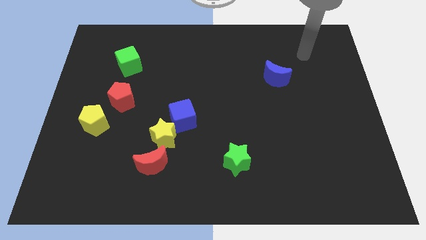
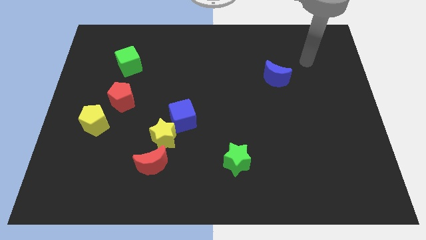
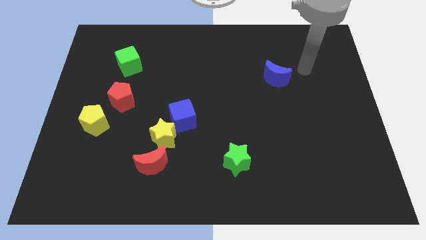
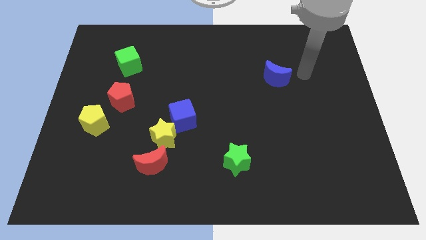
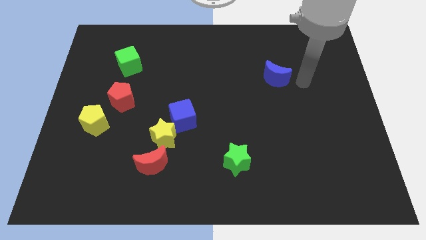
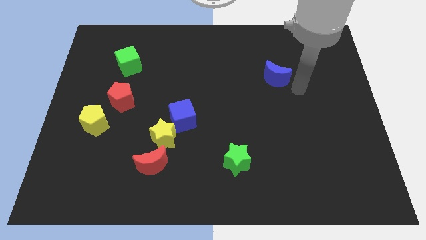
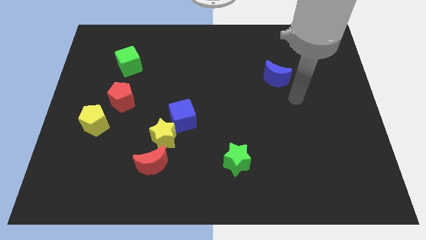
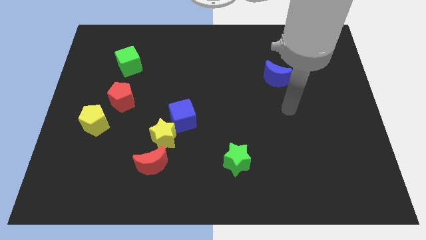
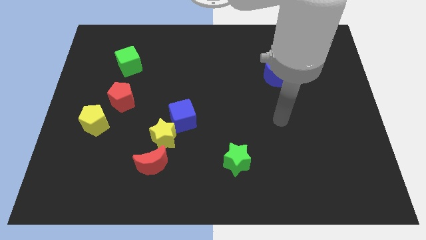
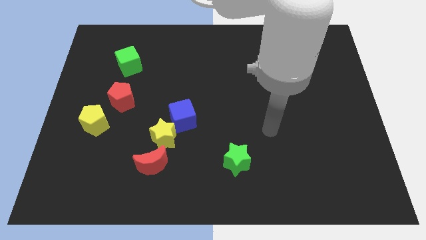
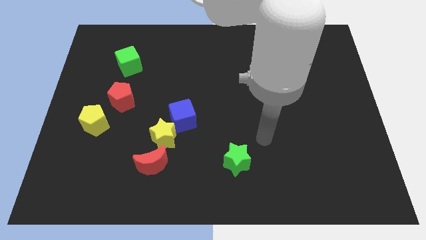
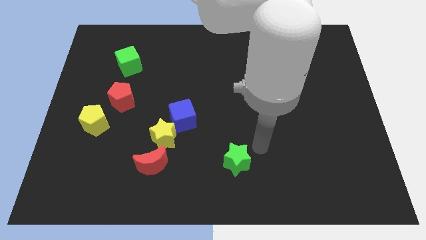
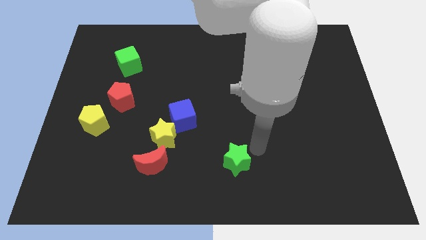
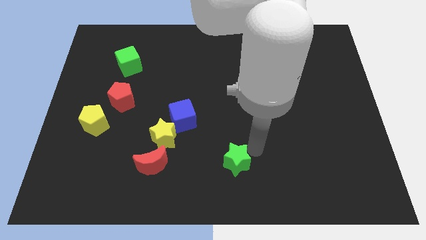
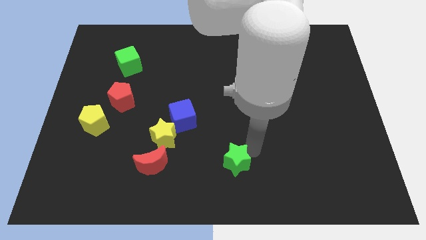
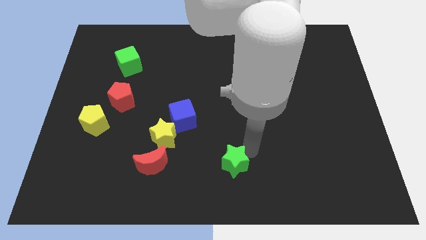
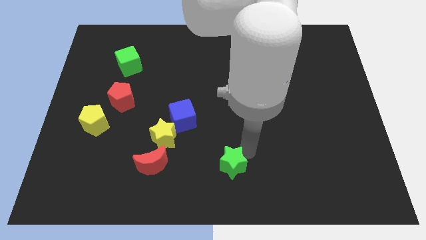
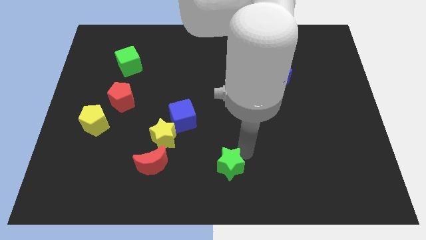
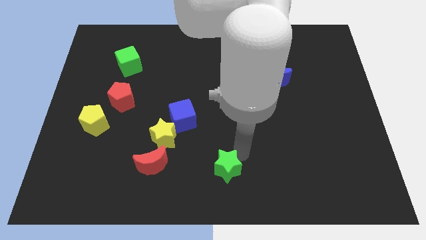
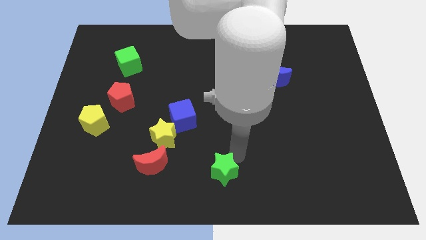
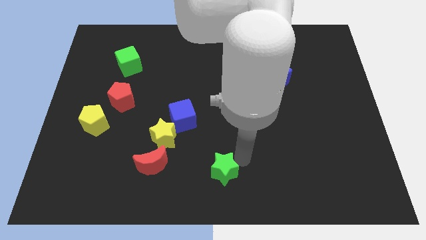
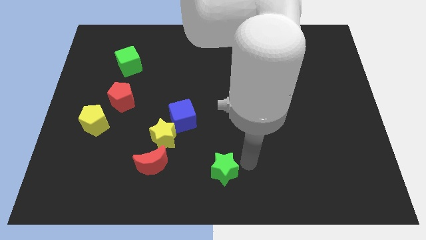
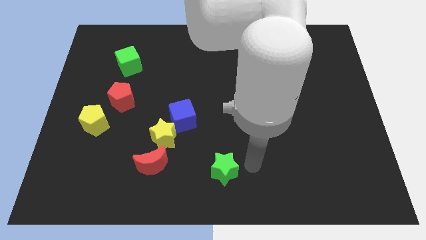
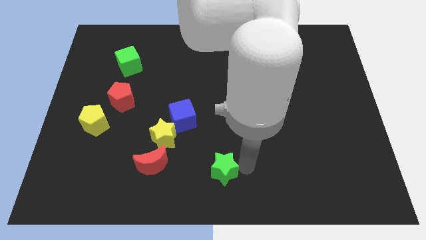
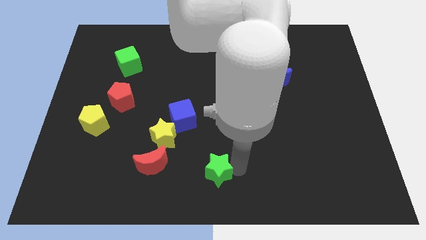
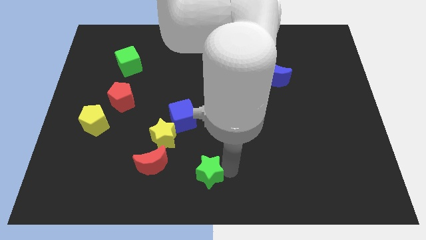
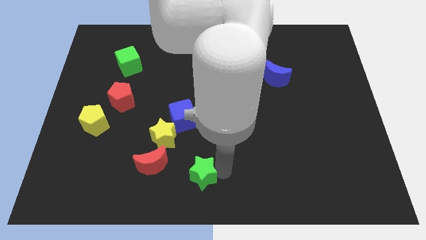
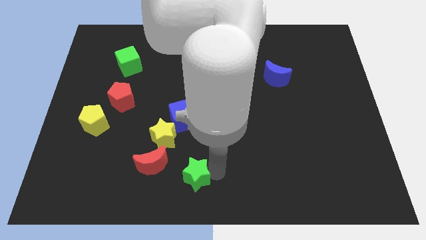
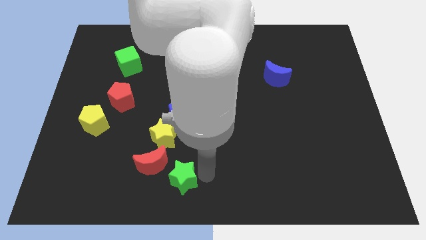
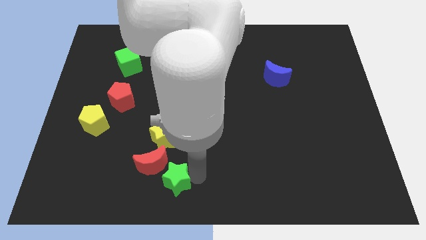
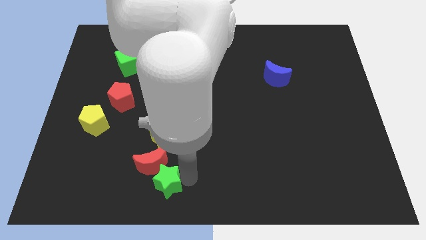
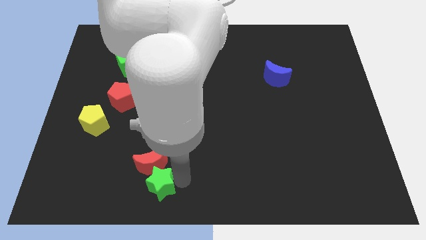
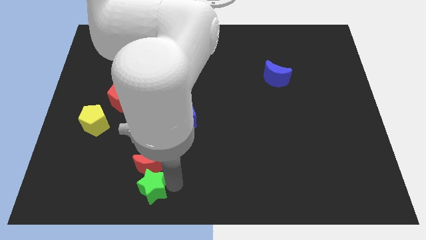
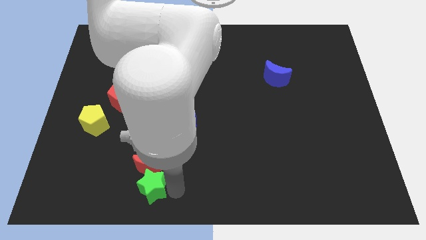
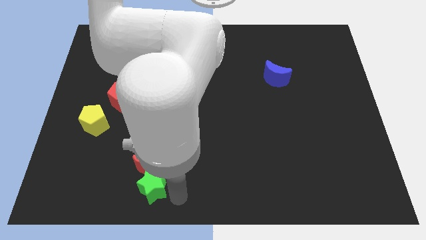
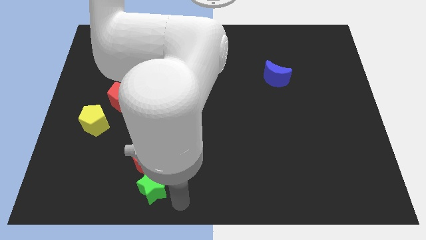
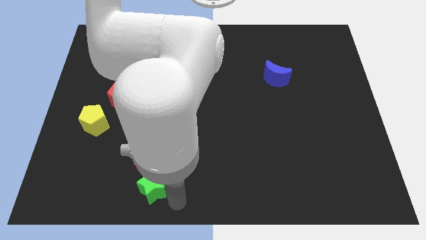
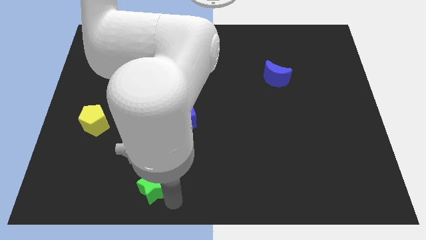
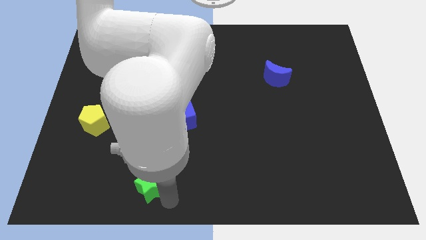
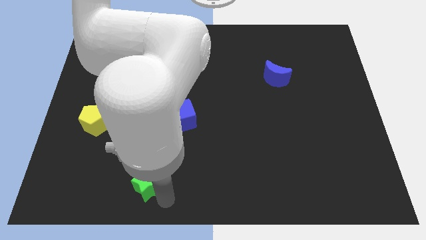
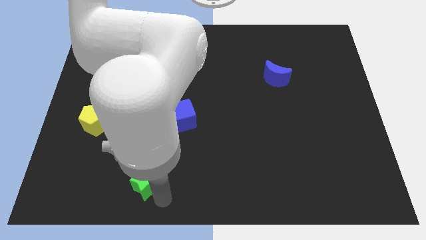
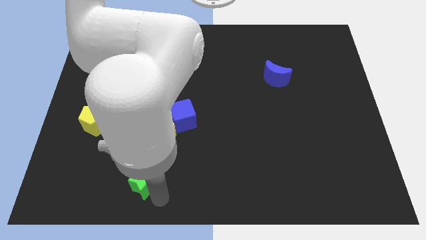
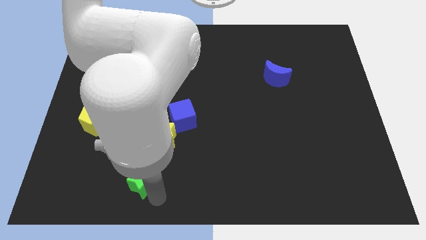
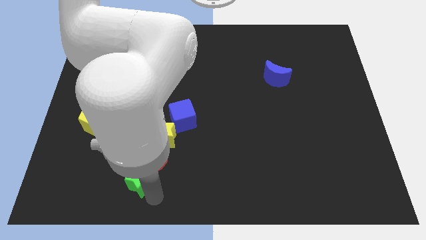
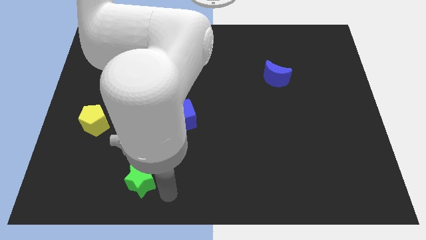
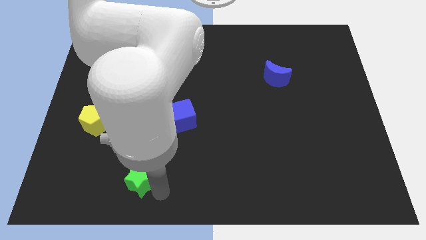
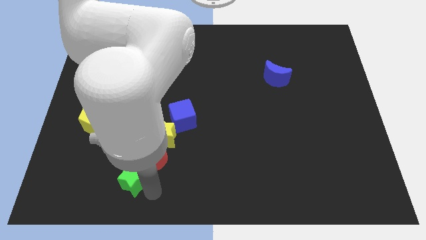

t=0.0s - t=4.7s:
move the green star left

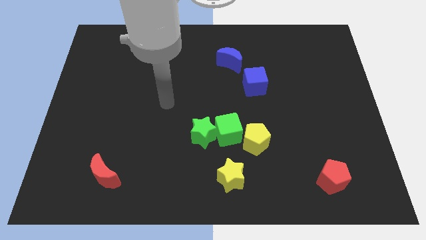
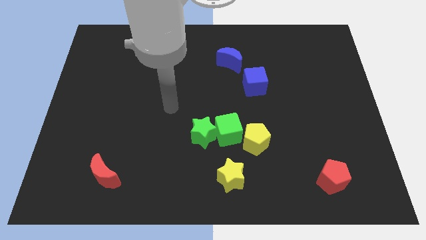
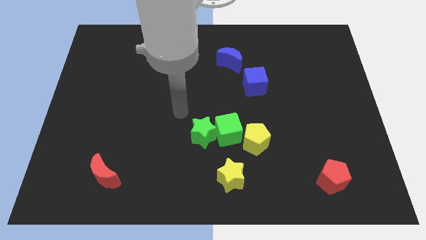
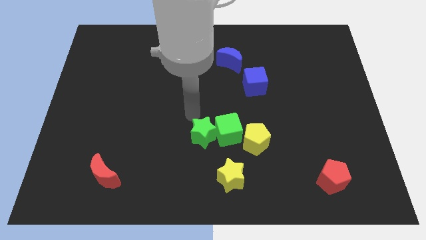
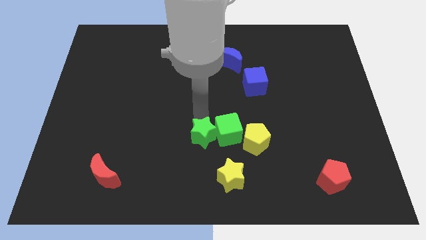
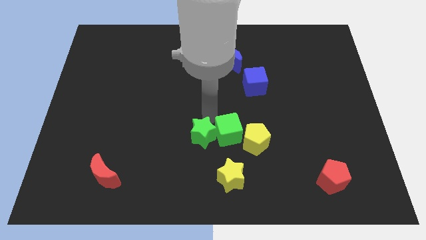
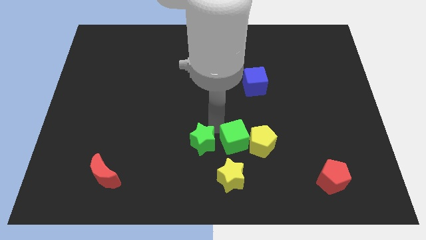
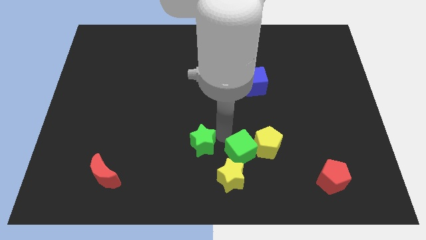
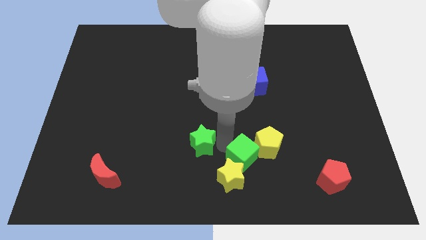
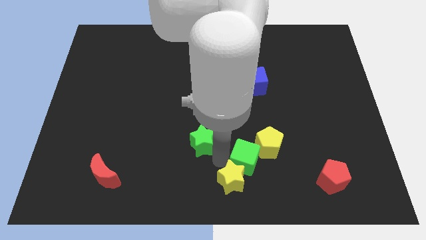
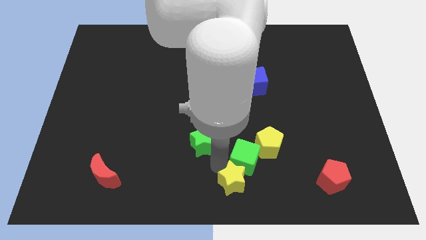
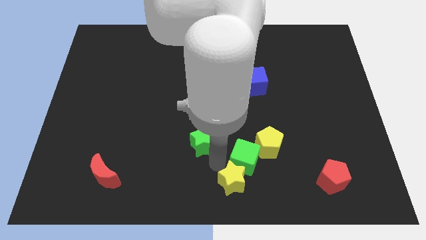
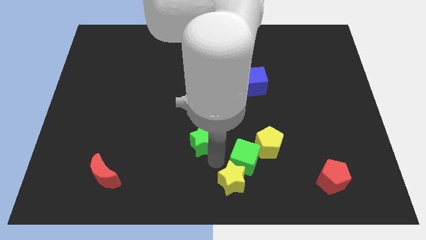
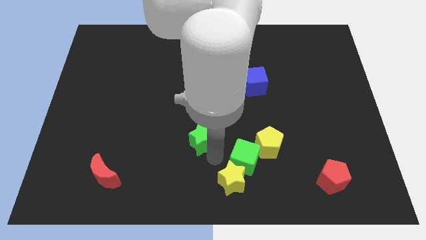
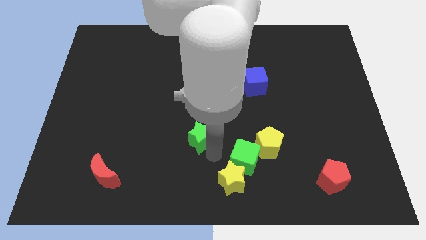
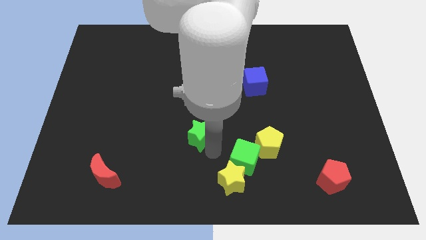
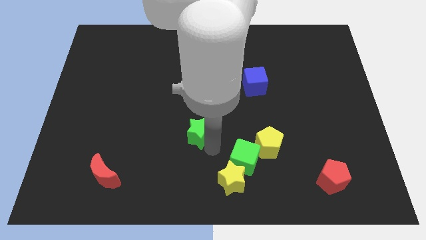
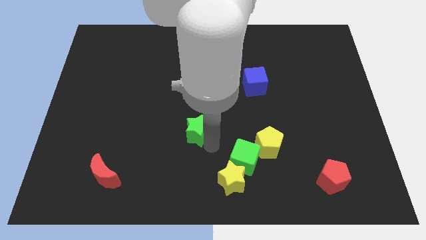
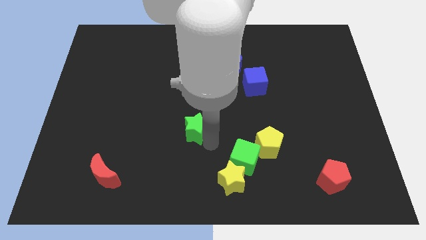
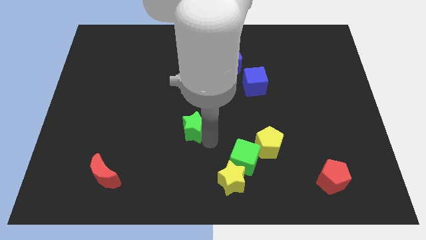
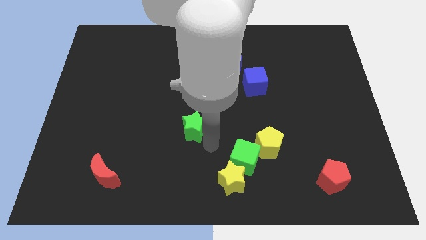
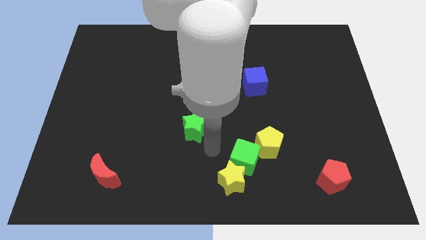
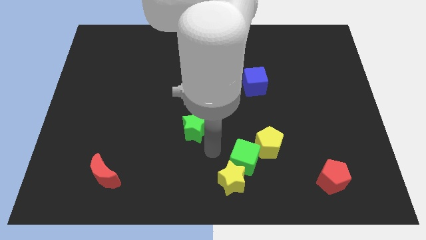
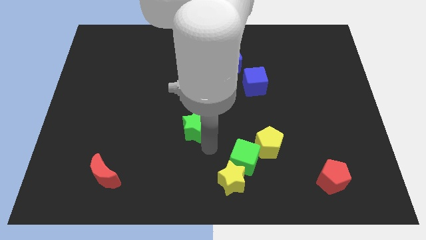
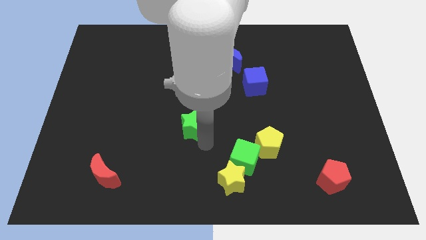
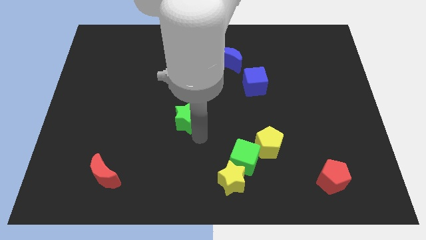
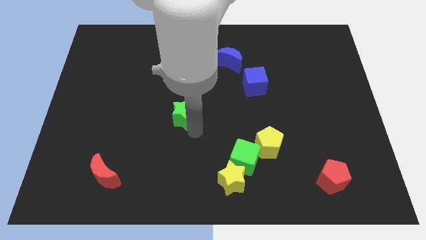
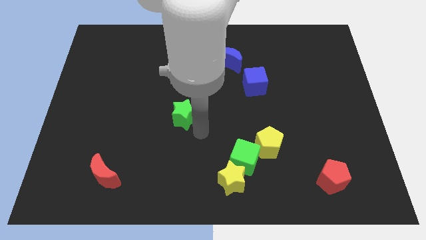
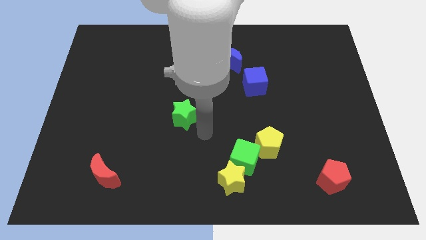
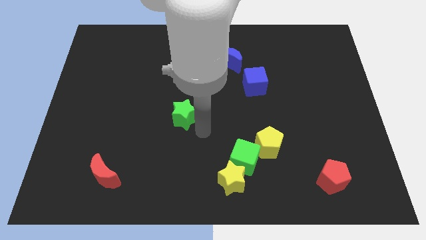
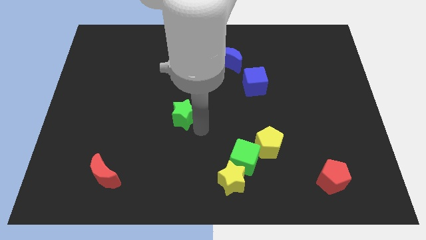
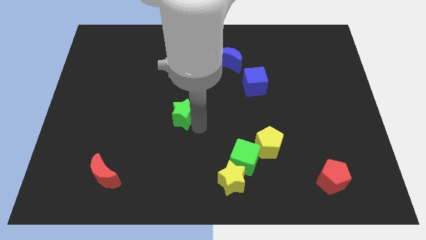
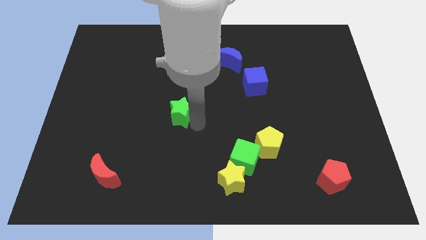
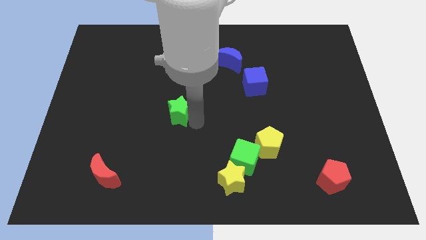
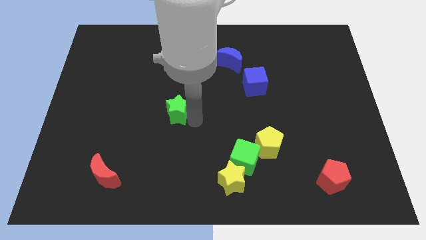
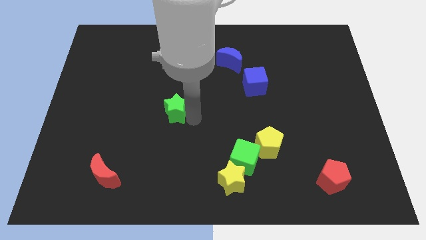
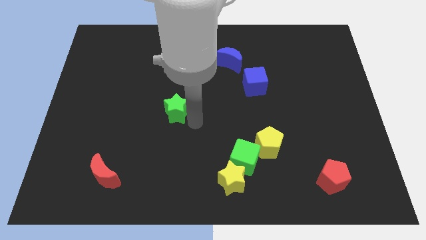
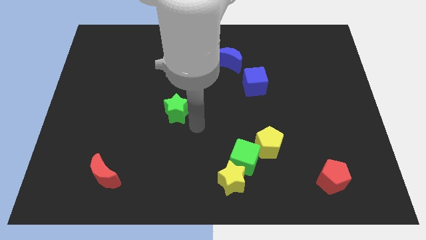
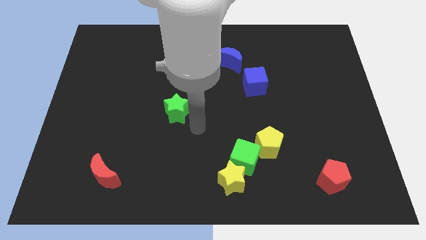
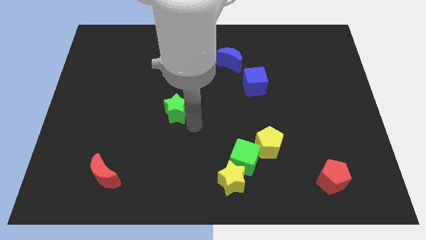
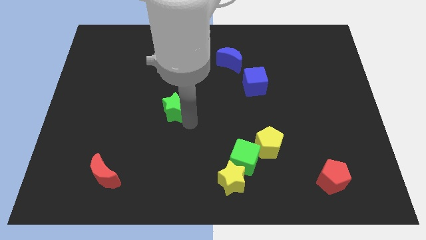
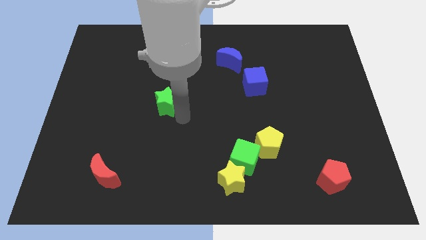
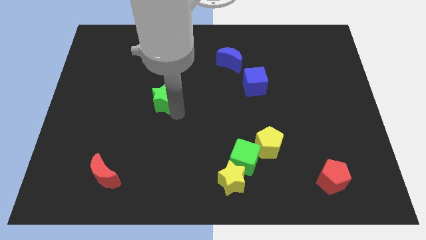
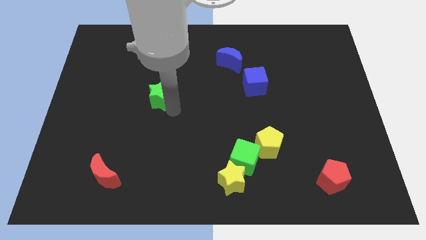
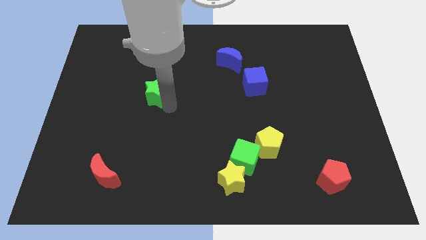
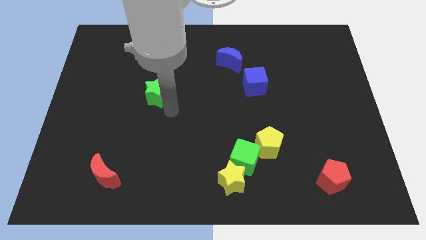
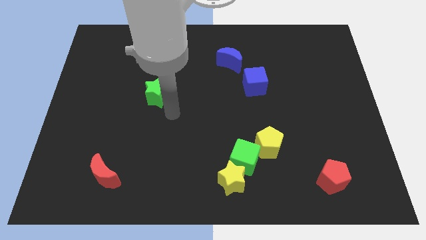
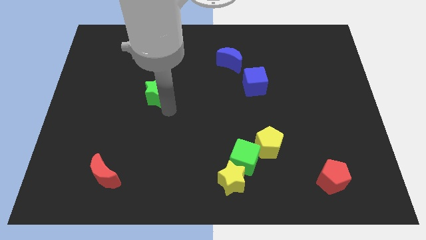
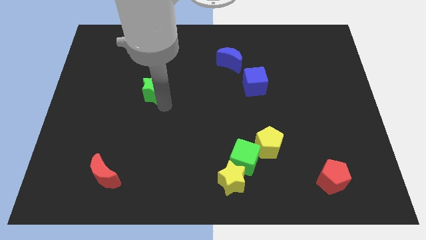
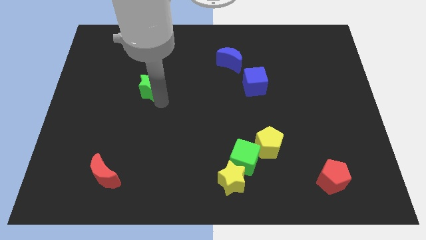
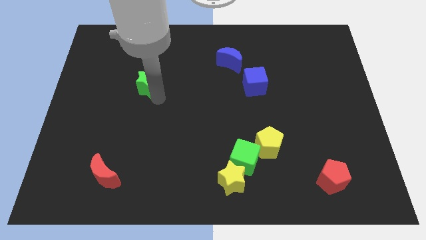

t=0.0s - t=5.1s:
push the green star upwards and to the left diagonally
